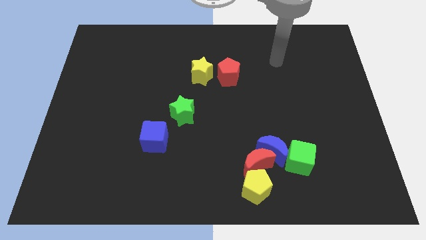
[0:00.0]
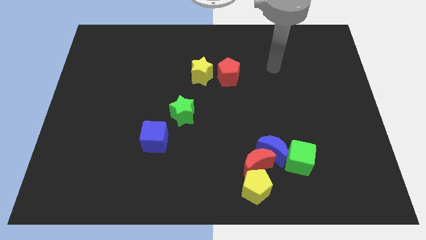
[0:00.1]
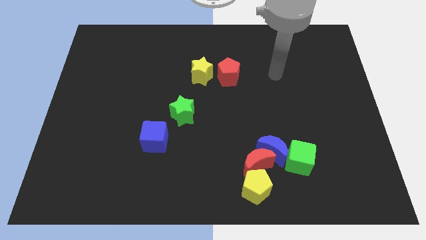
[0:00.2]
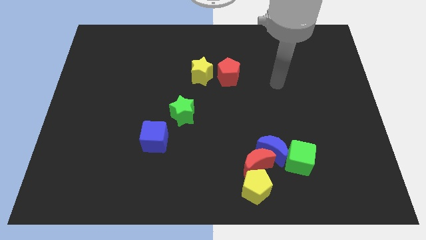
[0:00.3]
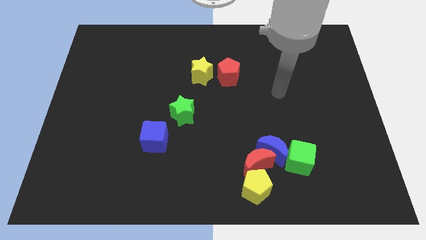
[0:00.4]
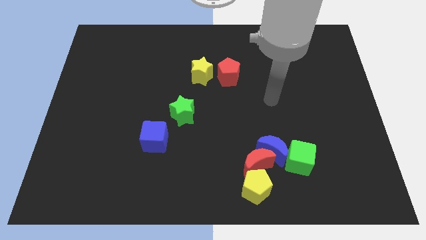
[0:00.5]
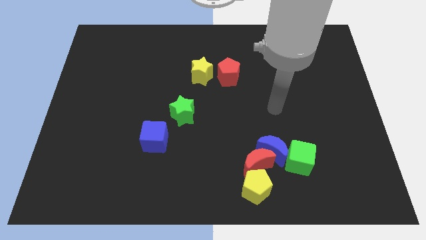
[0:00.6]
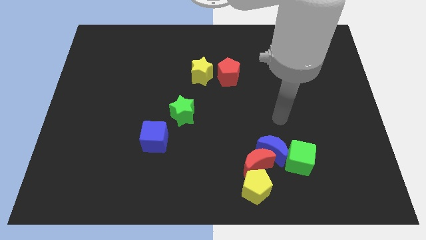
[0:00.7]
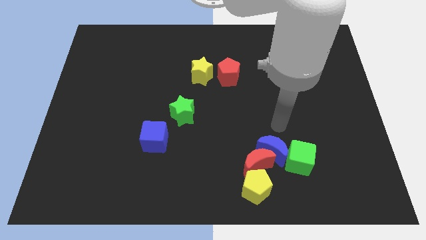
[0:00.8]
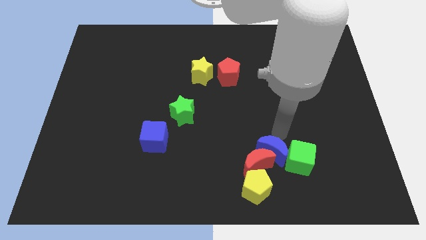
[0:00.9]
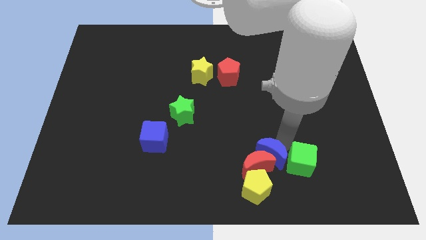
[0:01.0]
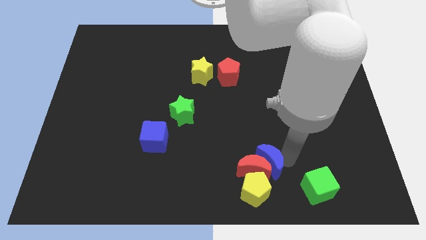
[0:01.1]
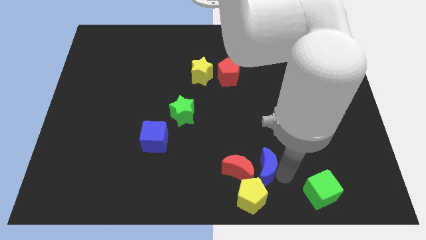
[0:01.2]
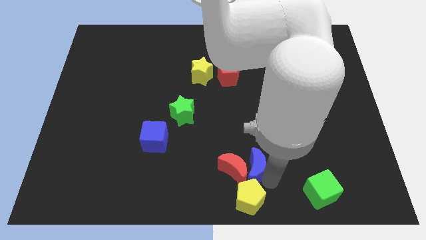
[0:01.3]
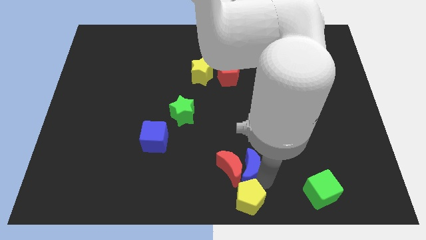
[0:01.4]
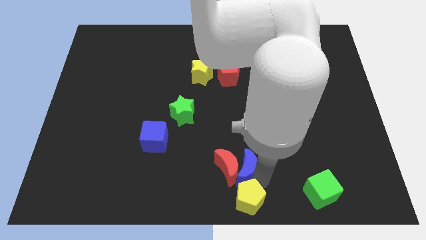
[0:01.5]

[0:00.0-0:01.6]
move the red moon away from the group of blocks

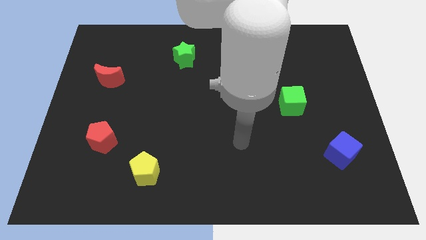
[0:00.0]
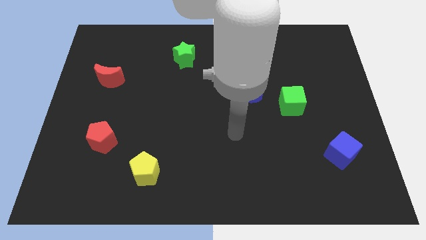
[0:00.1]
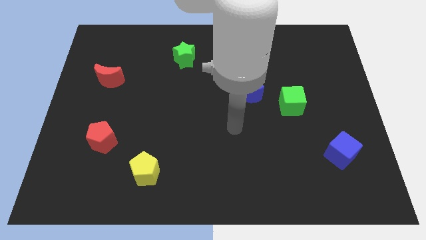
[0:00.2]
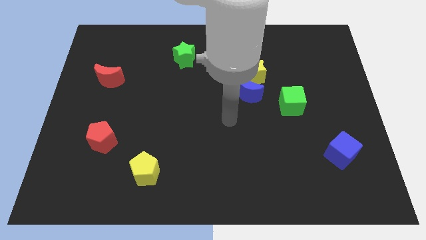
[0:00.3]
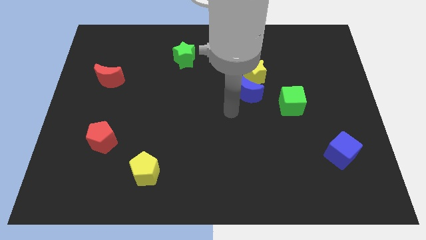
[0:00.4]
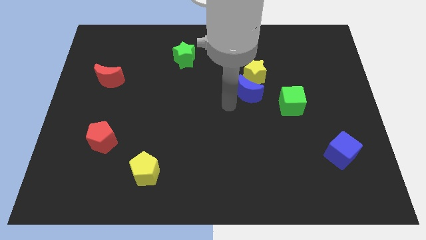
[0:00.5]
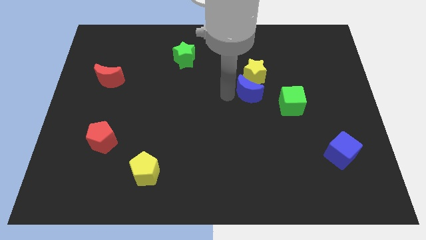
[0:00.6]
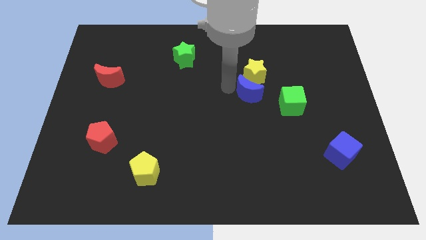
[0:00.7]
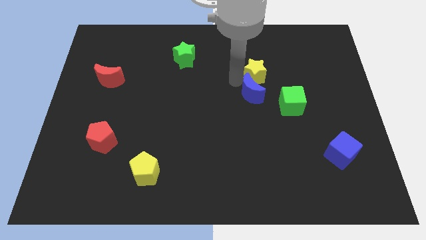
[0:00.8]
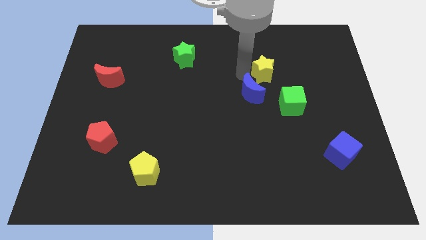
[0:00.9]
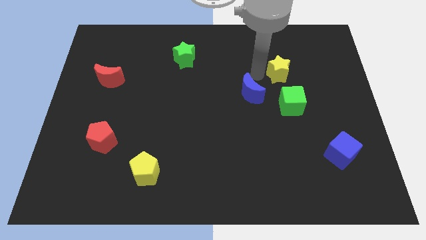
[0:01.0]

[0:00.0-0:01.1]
separate the blue moon from the yellow star

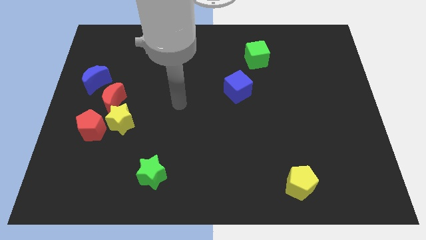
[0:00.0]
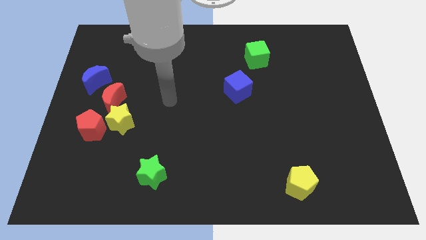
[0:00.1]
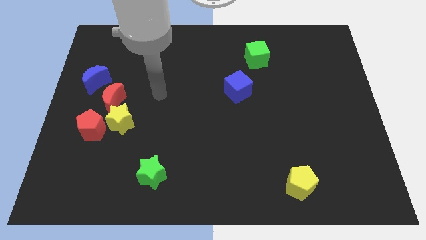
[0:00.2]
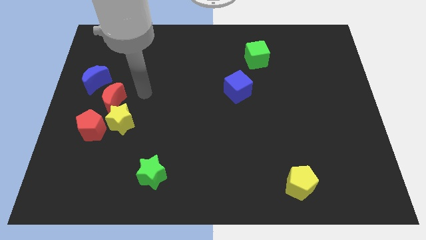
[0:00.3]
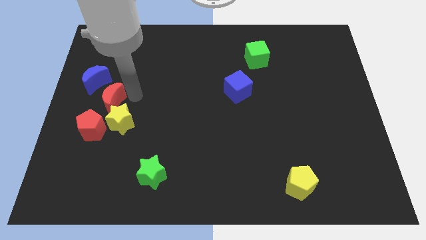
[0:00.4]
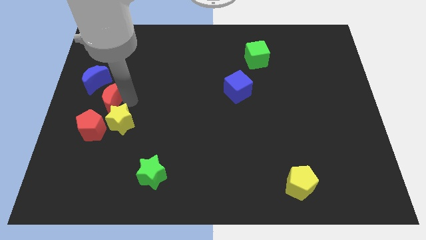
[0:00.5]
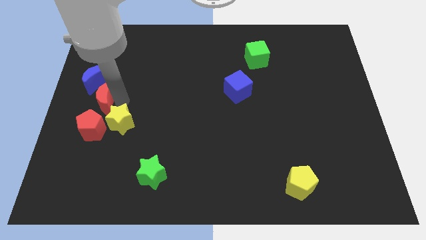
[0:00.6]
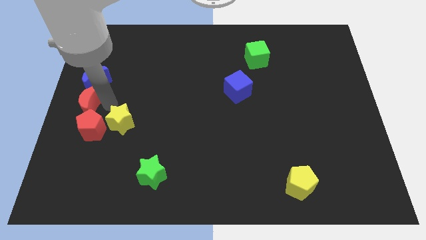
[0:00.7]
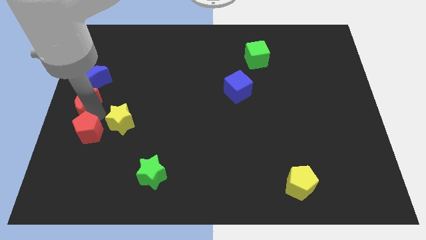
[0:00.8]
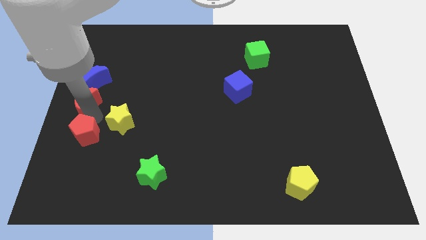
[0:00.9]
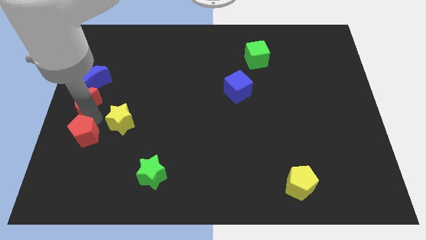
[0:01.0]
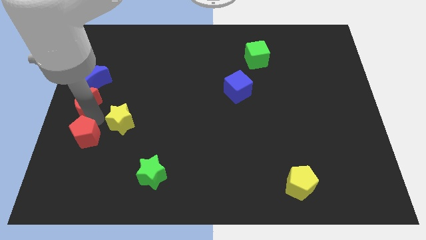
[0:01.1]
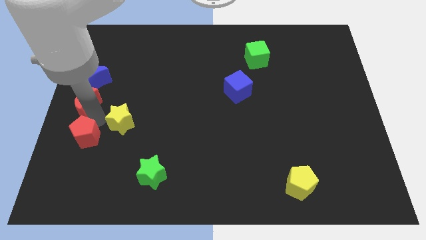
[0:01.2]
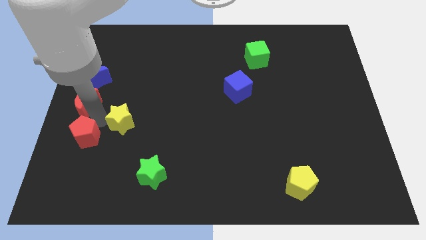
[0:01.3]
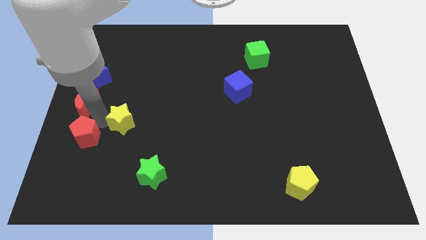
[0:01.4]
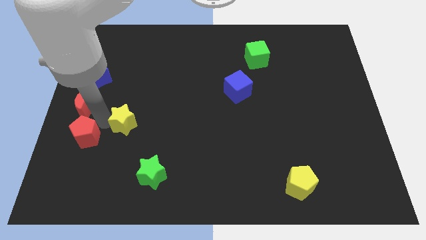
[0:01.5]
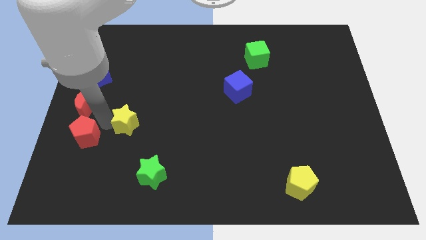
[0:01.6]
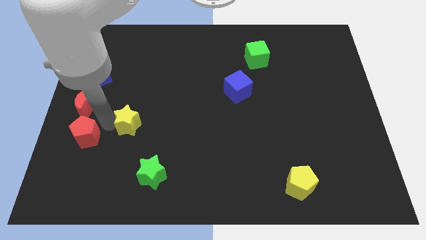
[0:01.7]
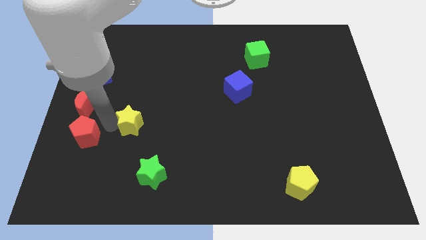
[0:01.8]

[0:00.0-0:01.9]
separate the yellow star from the red moon and red pentagon

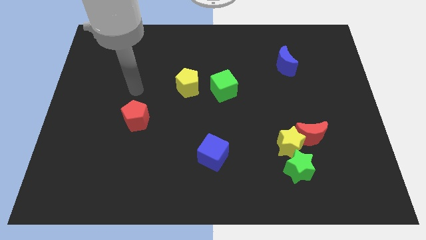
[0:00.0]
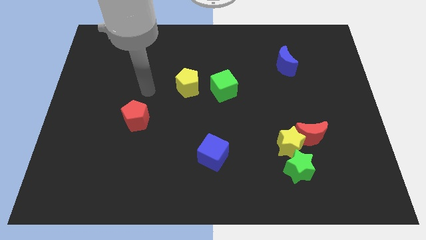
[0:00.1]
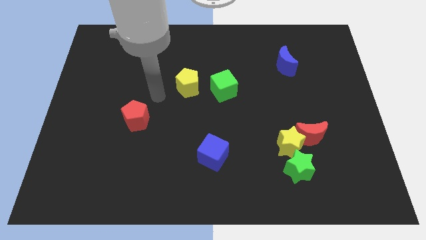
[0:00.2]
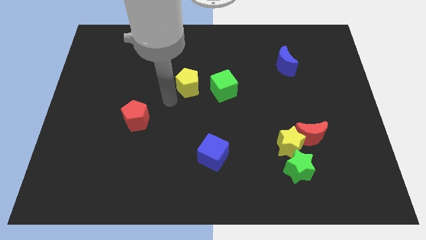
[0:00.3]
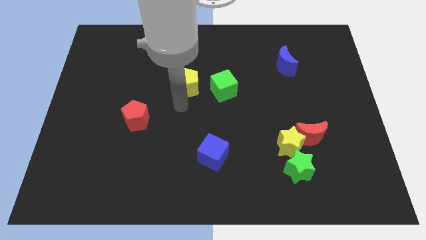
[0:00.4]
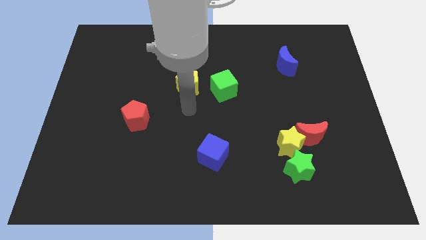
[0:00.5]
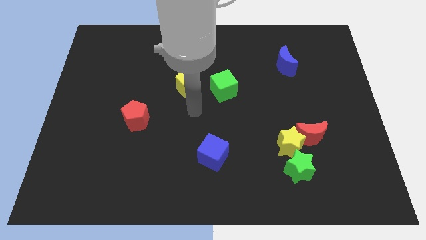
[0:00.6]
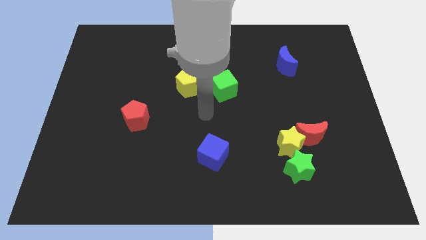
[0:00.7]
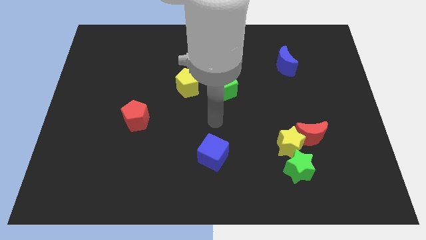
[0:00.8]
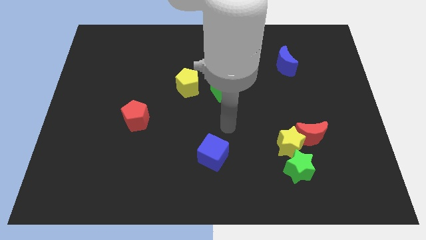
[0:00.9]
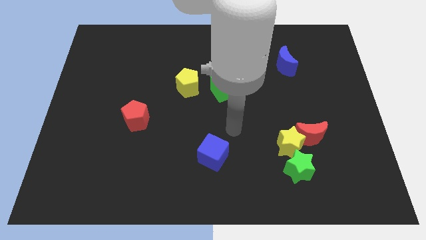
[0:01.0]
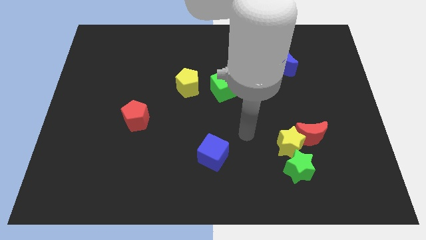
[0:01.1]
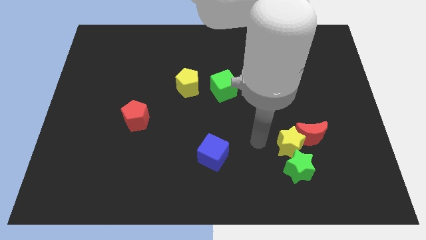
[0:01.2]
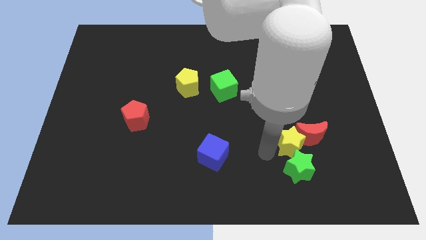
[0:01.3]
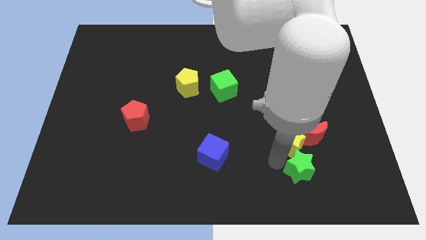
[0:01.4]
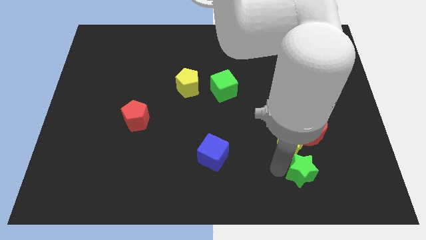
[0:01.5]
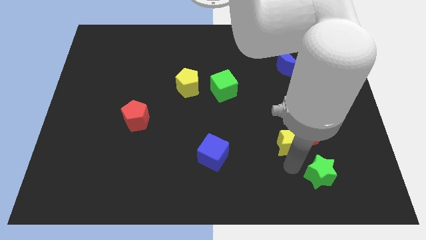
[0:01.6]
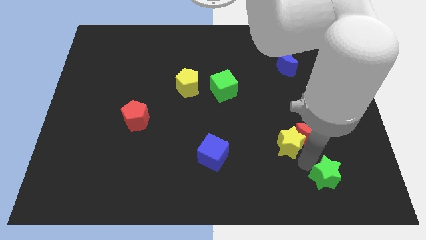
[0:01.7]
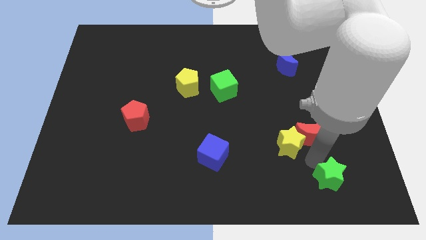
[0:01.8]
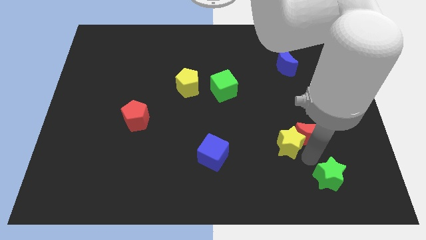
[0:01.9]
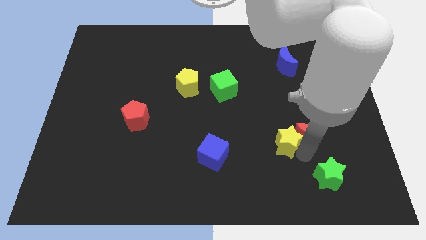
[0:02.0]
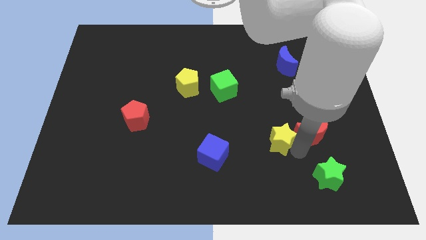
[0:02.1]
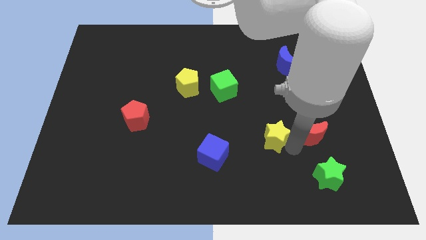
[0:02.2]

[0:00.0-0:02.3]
move the yellow star away from the red moon and green star

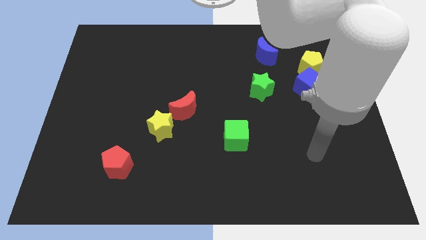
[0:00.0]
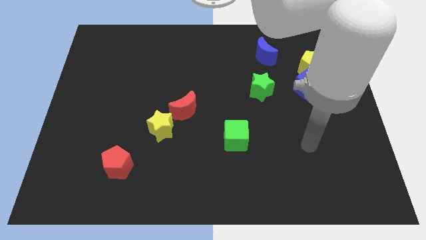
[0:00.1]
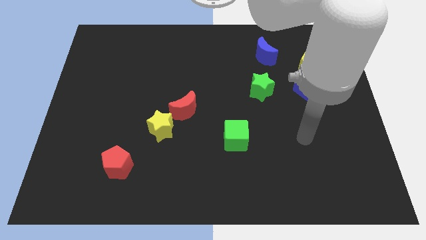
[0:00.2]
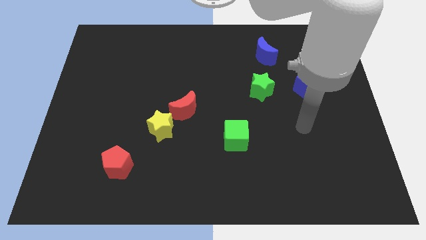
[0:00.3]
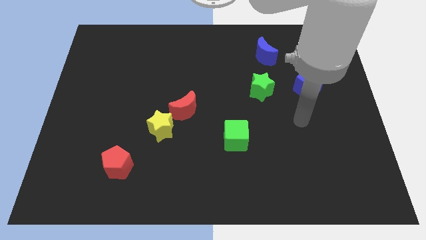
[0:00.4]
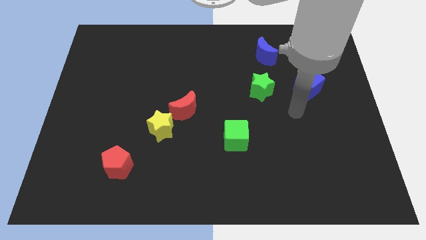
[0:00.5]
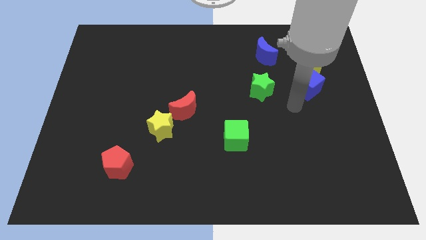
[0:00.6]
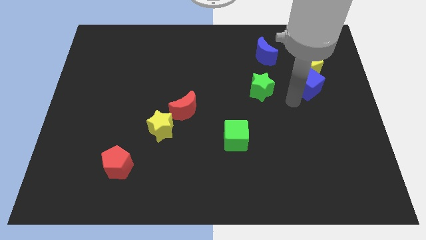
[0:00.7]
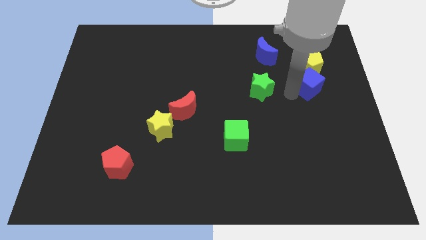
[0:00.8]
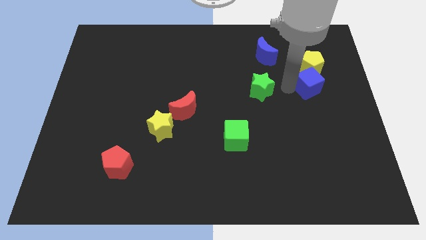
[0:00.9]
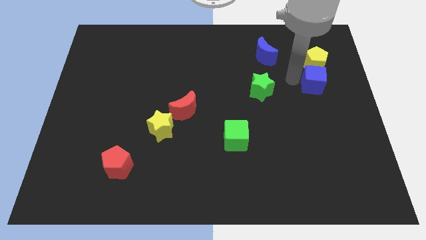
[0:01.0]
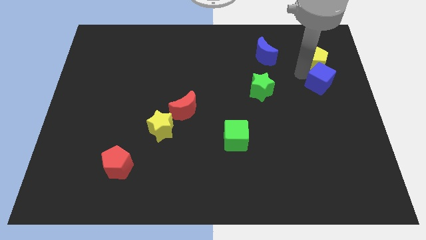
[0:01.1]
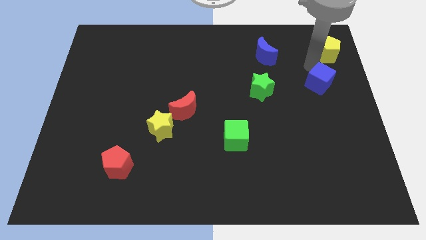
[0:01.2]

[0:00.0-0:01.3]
separate the blue cube from the yellow pentagon

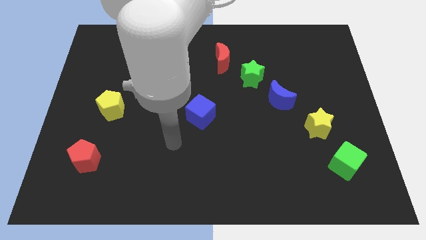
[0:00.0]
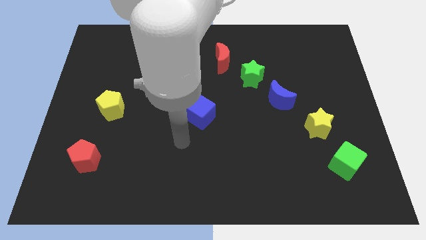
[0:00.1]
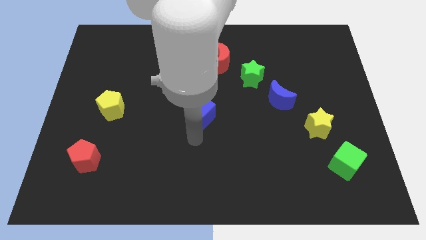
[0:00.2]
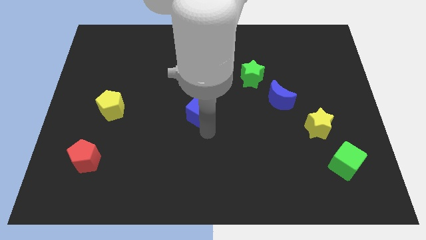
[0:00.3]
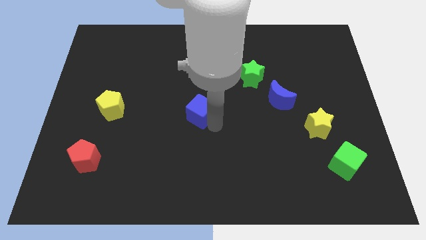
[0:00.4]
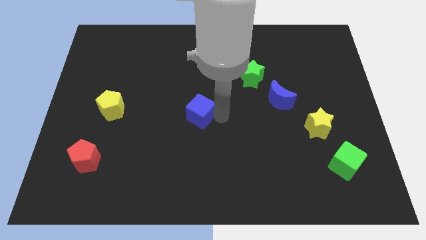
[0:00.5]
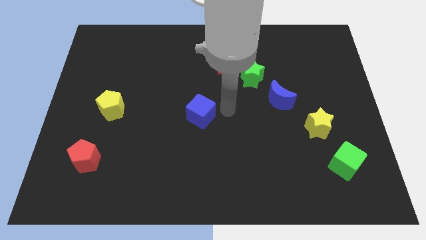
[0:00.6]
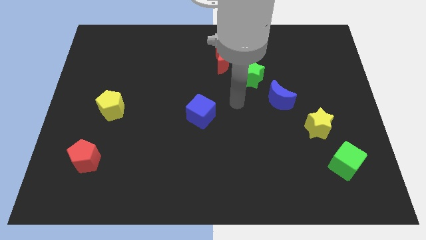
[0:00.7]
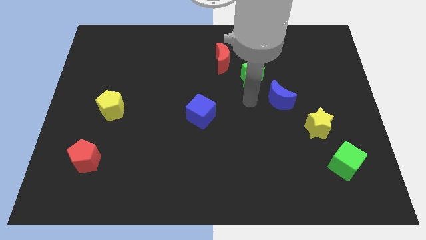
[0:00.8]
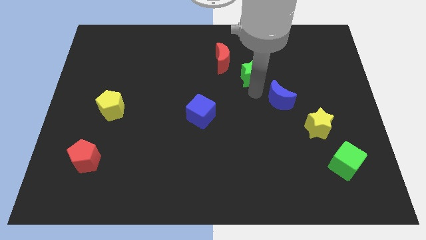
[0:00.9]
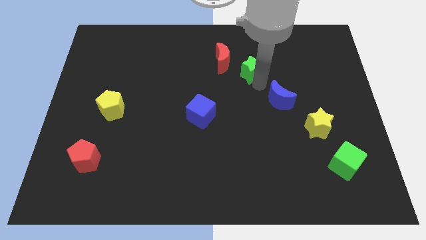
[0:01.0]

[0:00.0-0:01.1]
move the blue moon away from the green star
